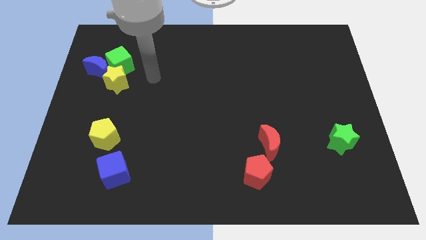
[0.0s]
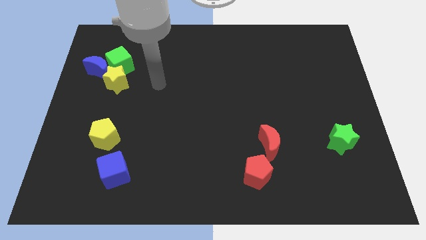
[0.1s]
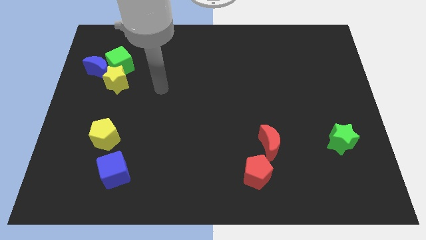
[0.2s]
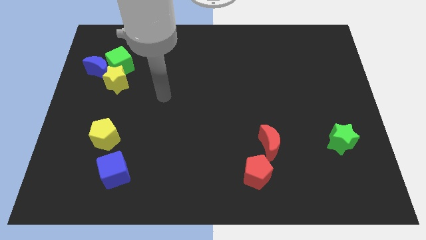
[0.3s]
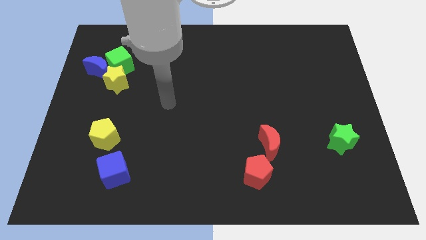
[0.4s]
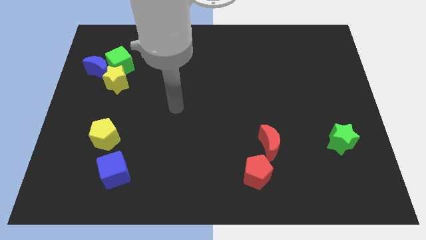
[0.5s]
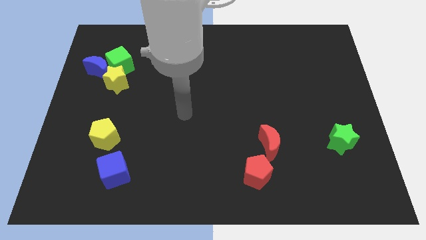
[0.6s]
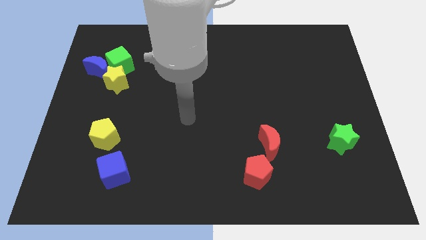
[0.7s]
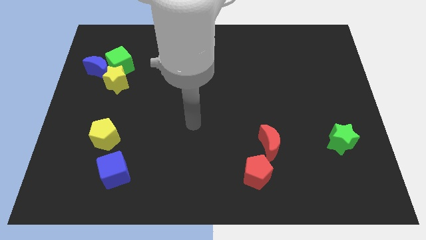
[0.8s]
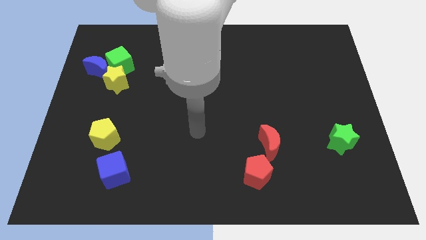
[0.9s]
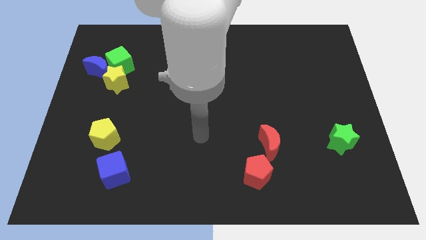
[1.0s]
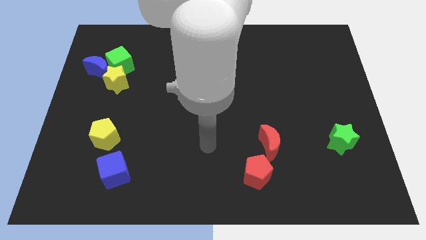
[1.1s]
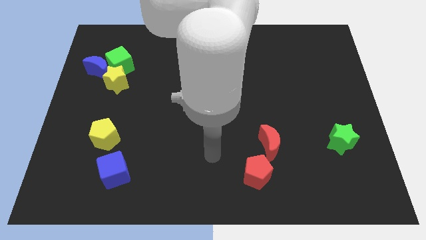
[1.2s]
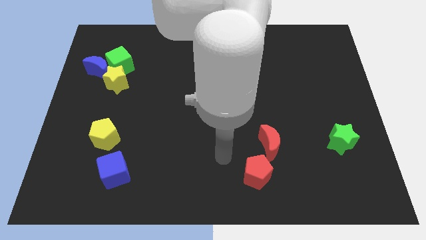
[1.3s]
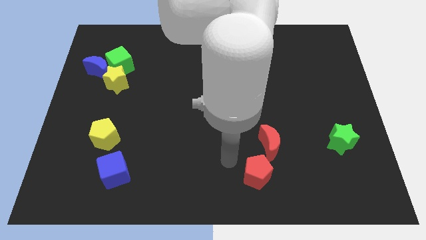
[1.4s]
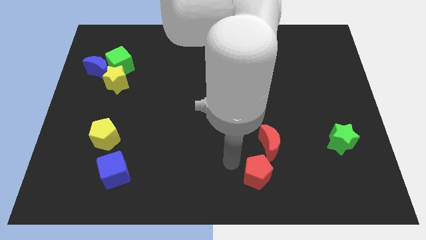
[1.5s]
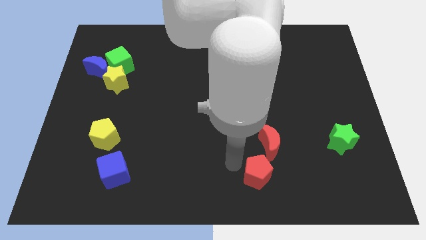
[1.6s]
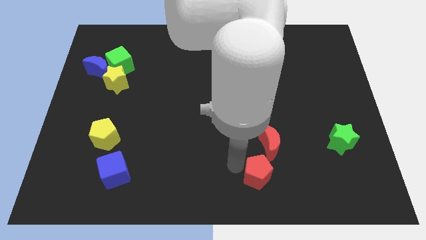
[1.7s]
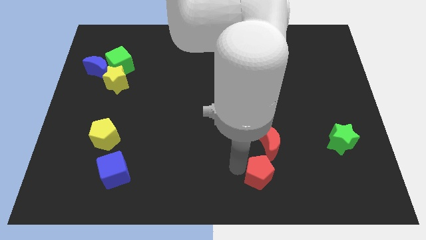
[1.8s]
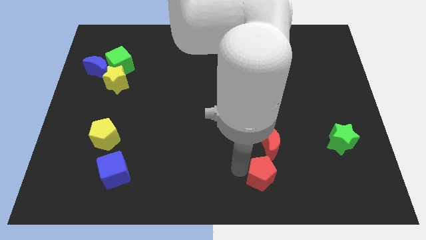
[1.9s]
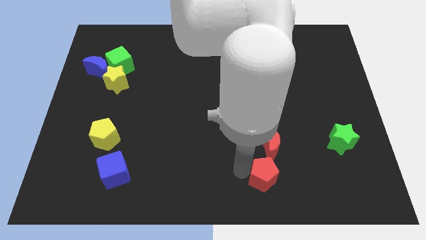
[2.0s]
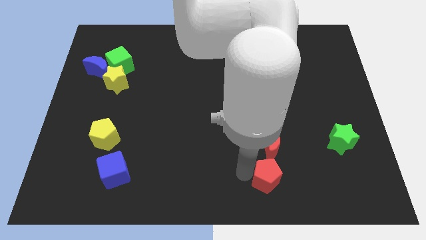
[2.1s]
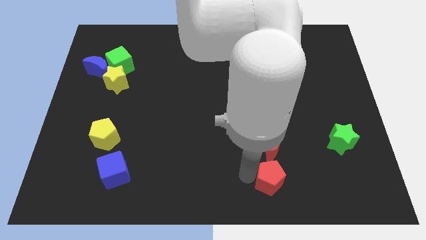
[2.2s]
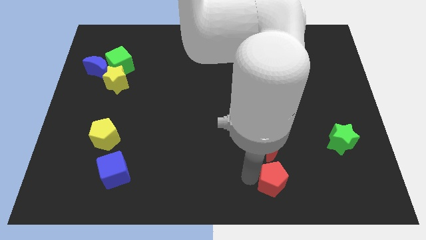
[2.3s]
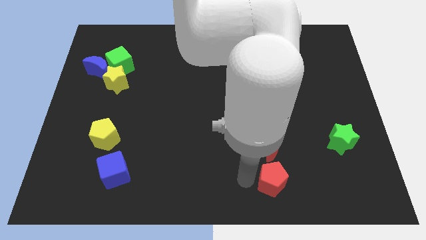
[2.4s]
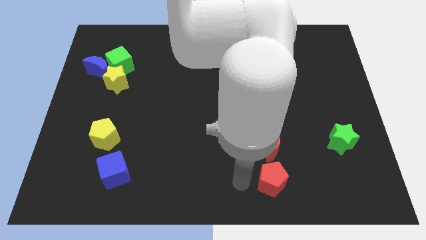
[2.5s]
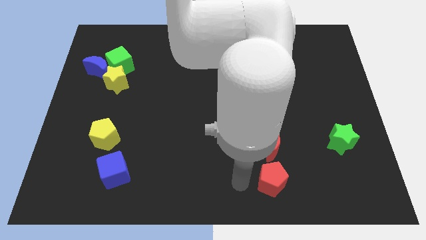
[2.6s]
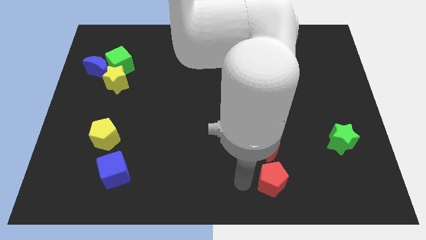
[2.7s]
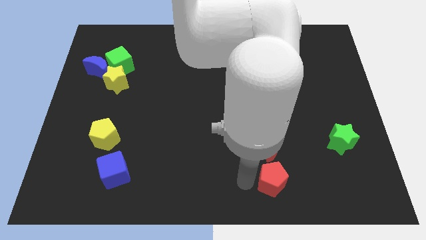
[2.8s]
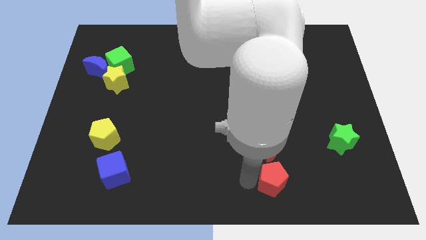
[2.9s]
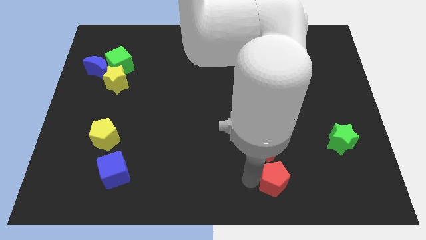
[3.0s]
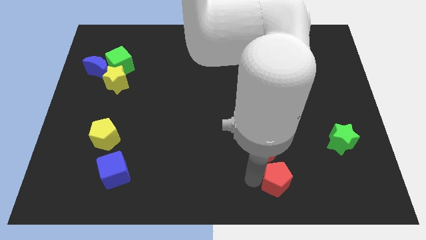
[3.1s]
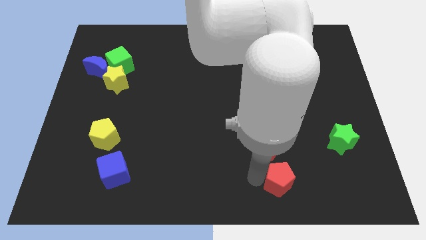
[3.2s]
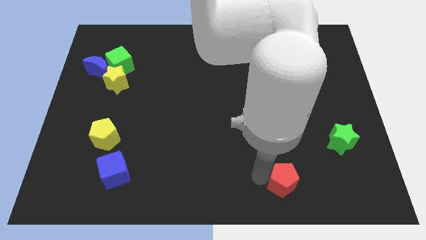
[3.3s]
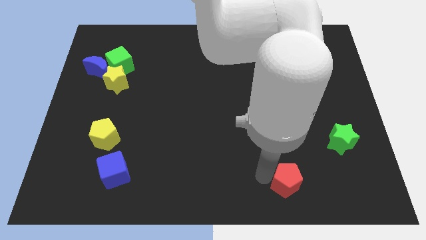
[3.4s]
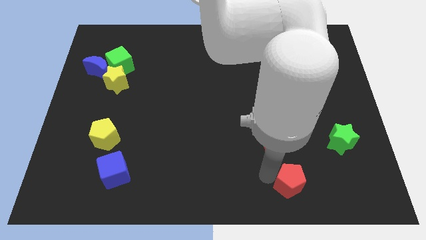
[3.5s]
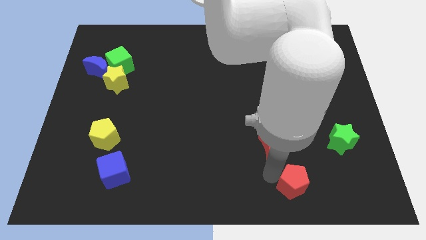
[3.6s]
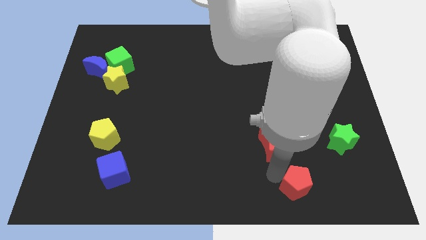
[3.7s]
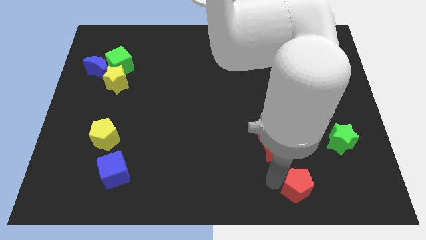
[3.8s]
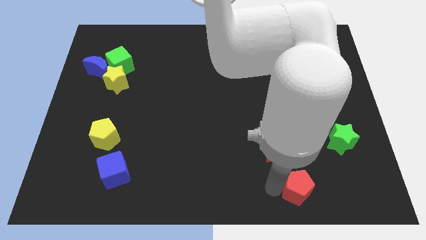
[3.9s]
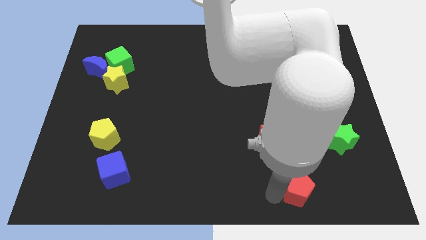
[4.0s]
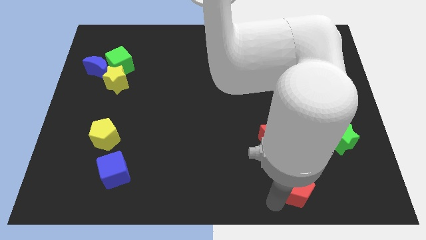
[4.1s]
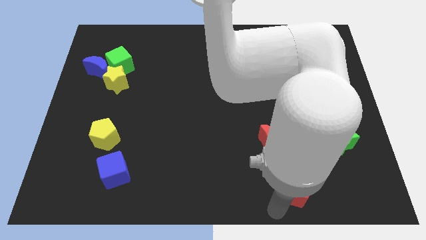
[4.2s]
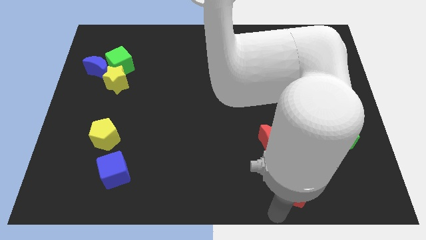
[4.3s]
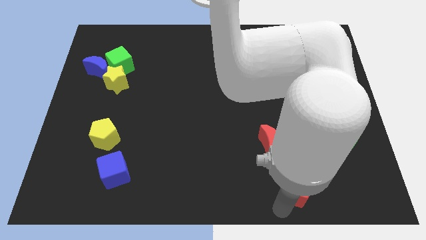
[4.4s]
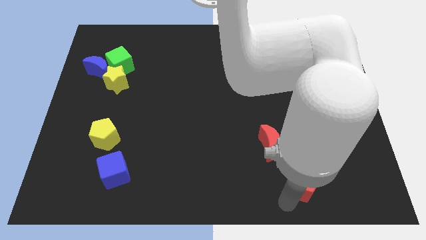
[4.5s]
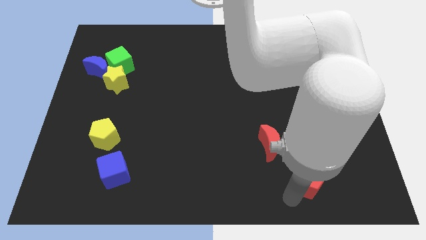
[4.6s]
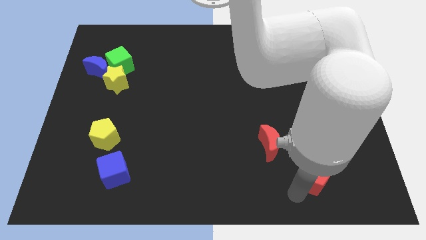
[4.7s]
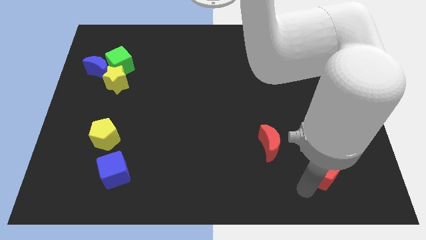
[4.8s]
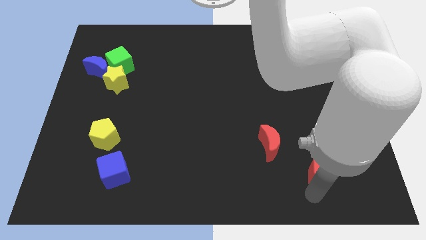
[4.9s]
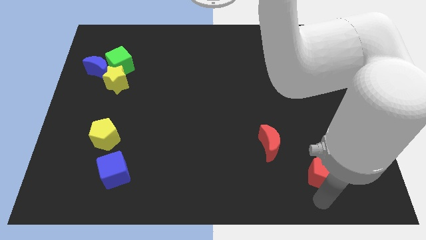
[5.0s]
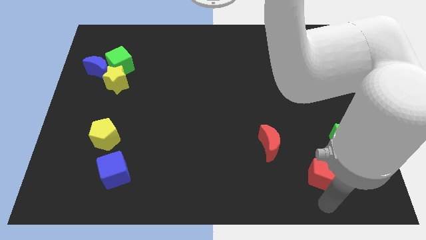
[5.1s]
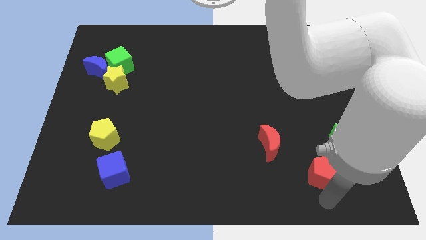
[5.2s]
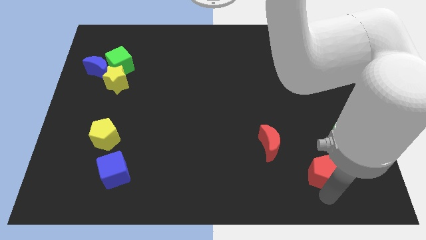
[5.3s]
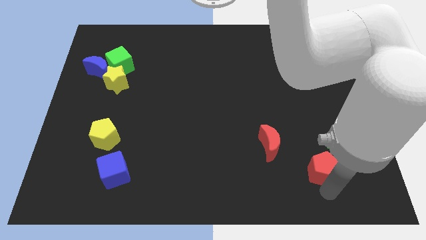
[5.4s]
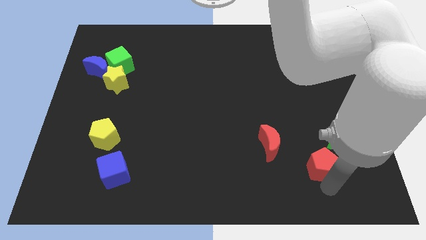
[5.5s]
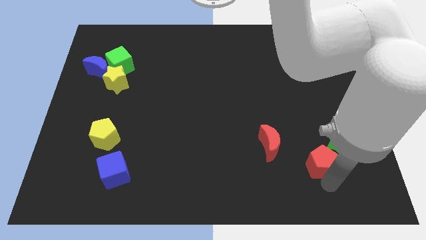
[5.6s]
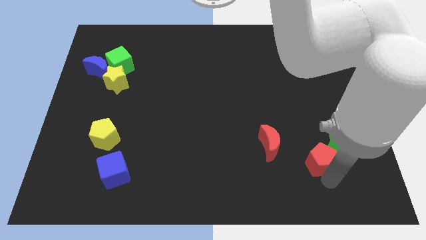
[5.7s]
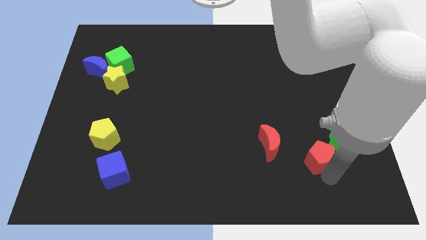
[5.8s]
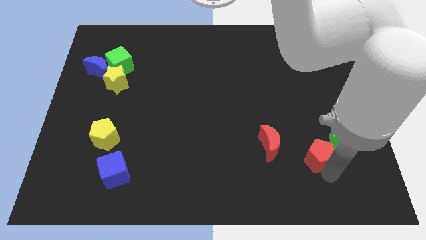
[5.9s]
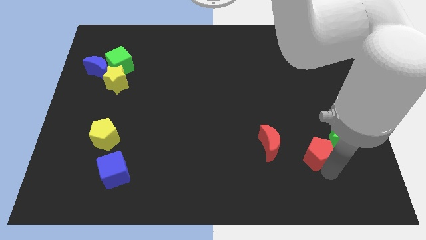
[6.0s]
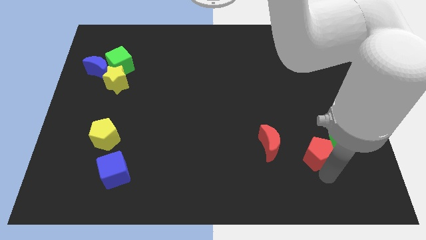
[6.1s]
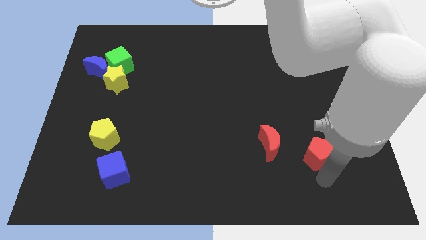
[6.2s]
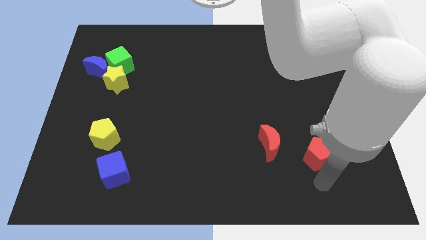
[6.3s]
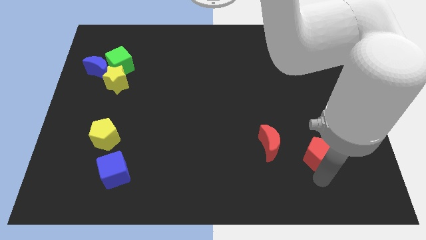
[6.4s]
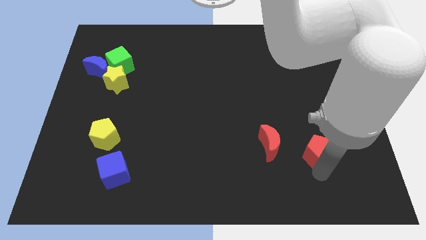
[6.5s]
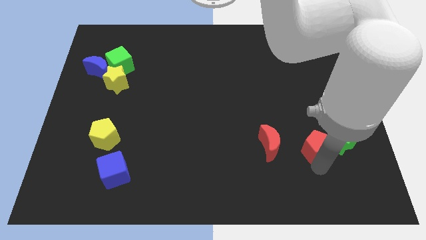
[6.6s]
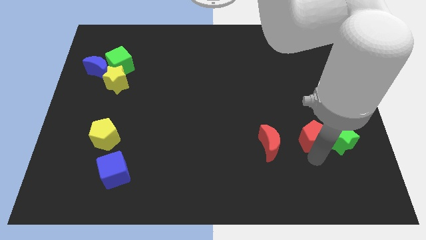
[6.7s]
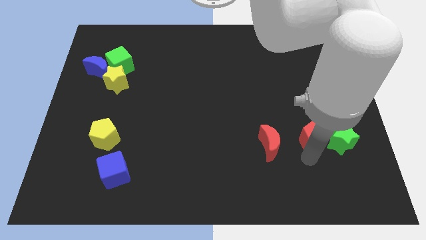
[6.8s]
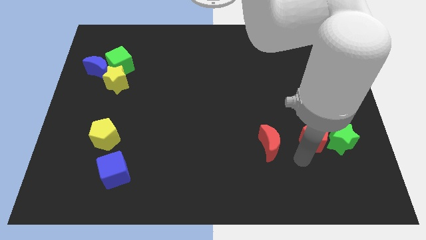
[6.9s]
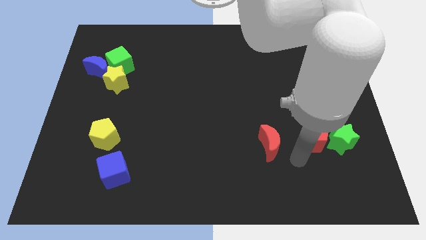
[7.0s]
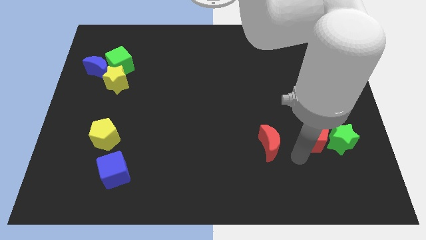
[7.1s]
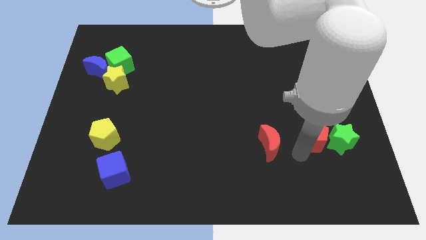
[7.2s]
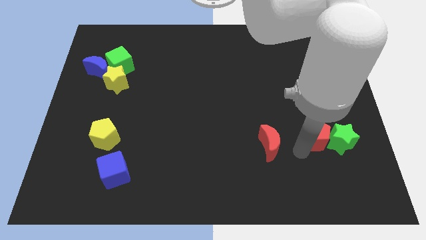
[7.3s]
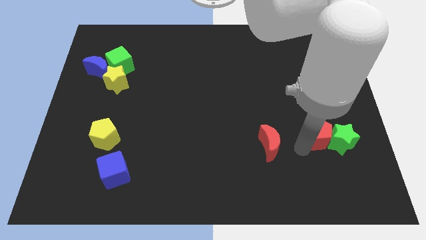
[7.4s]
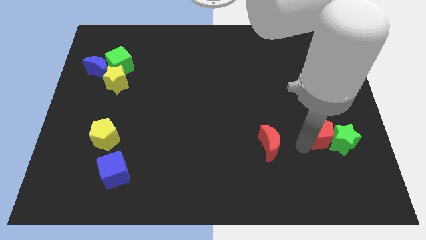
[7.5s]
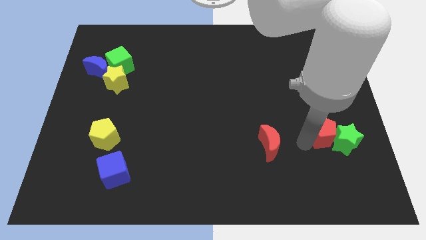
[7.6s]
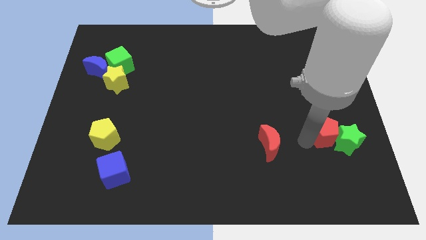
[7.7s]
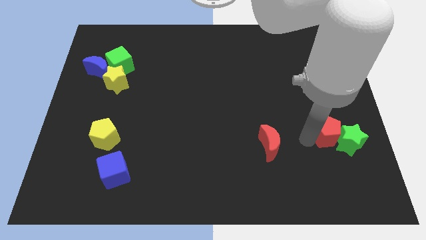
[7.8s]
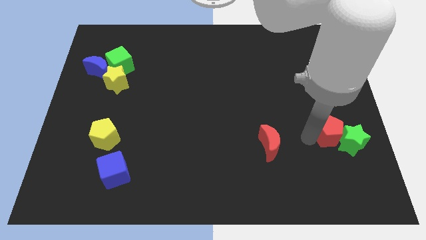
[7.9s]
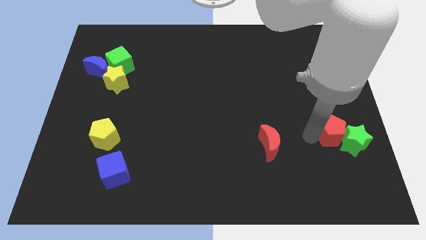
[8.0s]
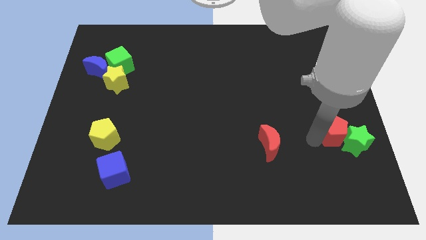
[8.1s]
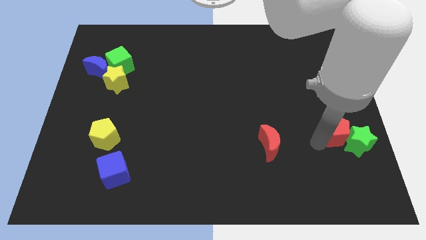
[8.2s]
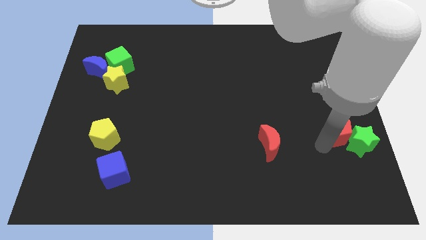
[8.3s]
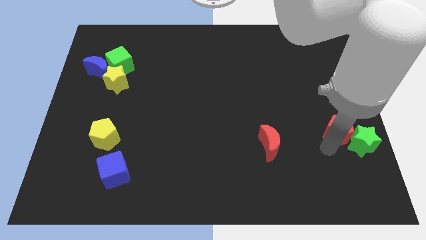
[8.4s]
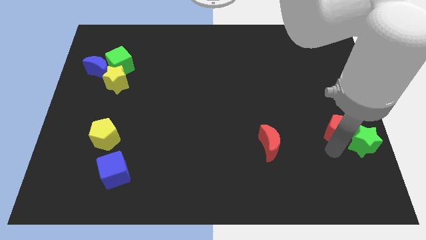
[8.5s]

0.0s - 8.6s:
slide the red pentagon to the top side of the green star
